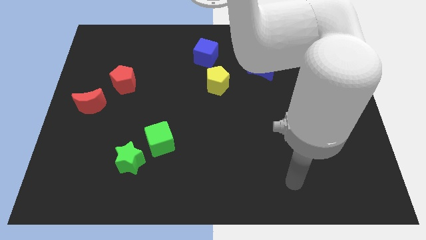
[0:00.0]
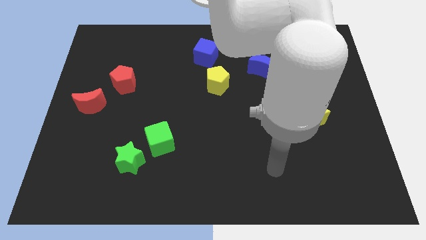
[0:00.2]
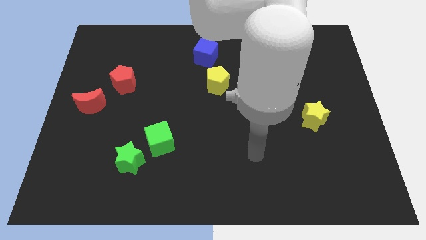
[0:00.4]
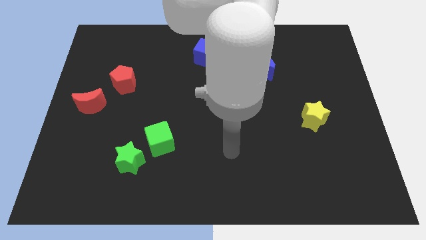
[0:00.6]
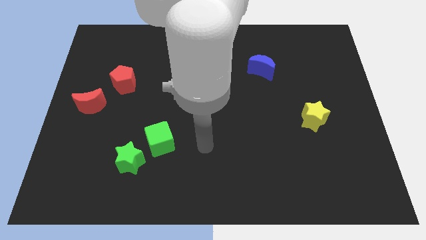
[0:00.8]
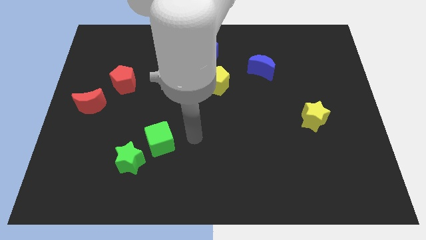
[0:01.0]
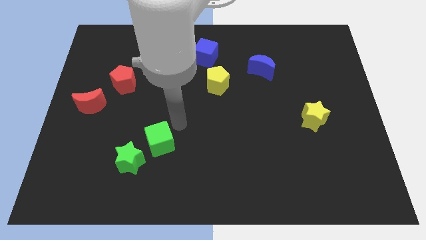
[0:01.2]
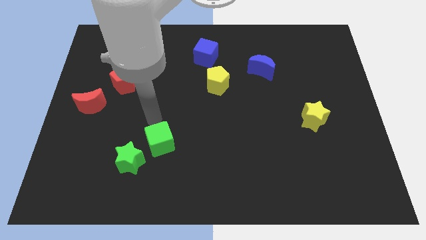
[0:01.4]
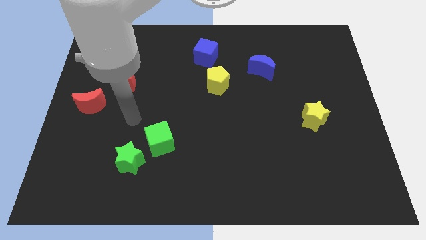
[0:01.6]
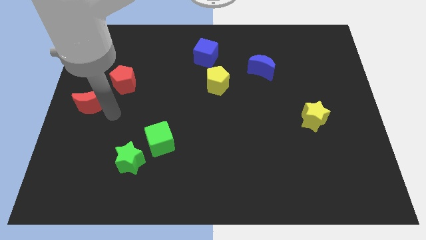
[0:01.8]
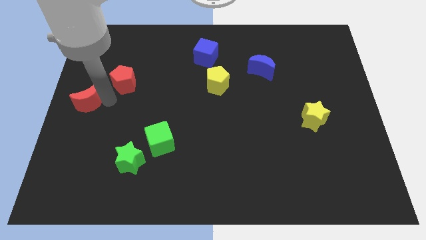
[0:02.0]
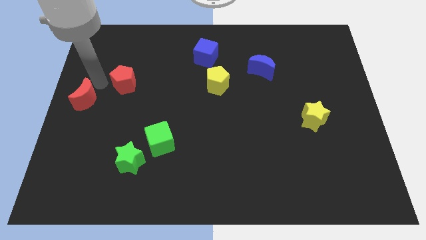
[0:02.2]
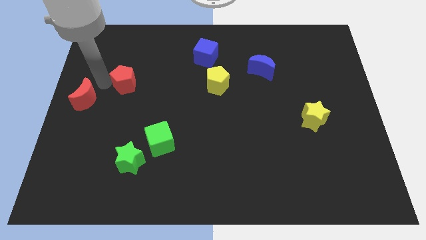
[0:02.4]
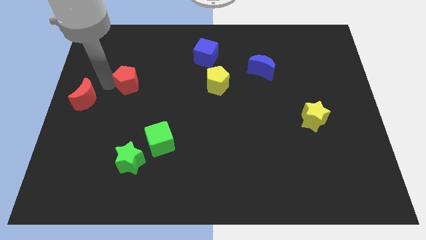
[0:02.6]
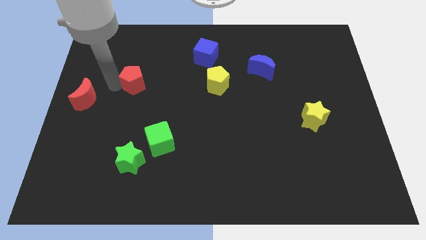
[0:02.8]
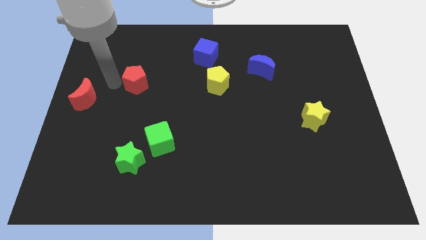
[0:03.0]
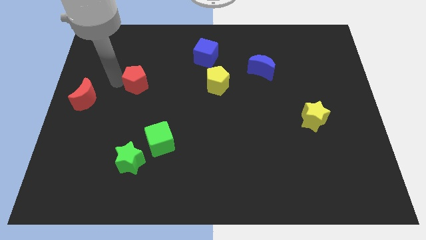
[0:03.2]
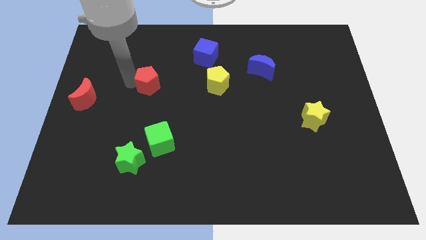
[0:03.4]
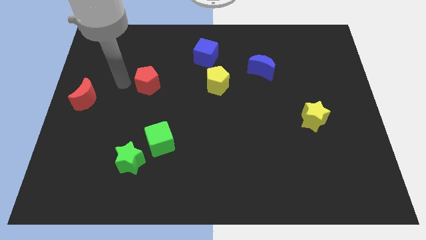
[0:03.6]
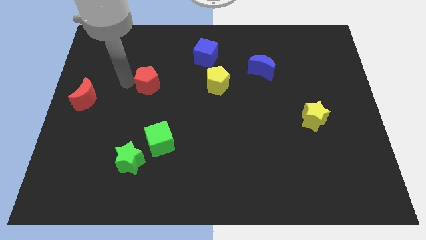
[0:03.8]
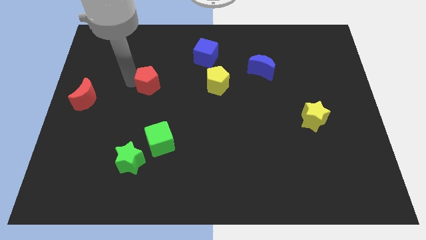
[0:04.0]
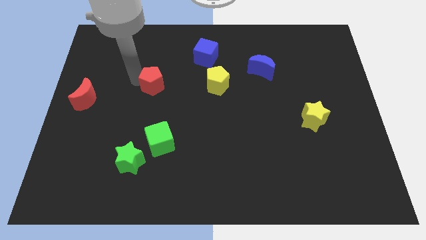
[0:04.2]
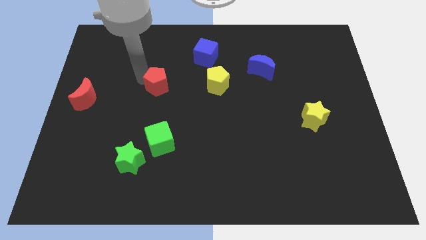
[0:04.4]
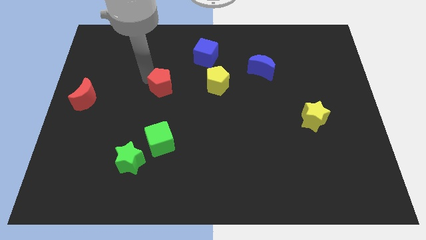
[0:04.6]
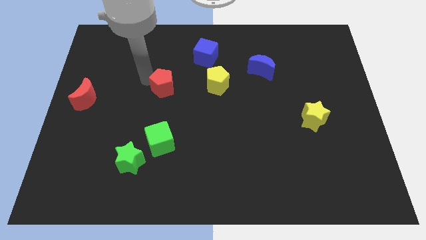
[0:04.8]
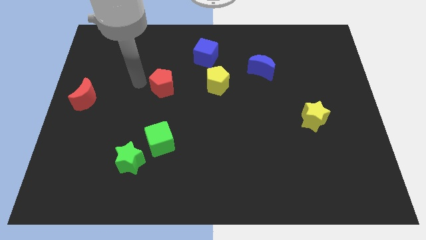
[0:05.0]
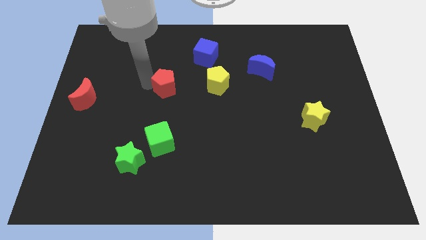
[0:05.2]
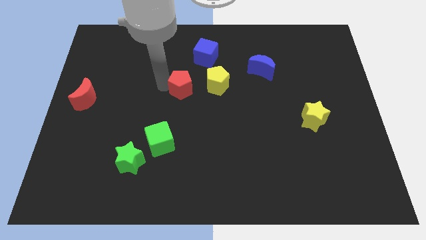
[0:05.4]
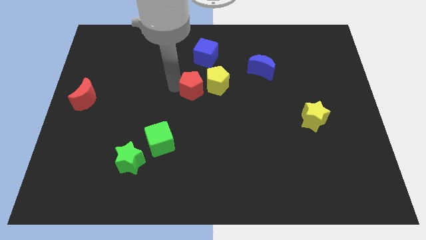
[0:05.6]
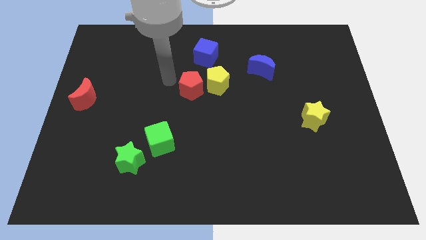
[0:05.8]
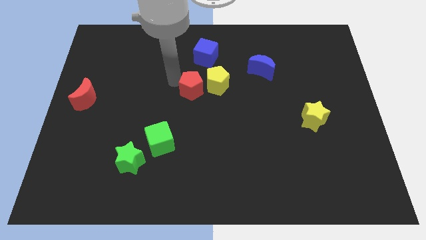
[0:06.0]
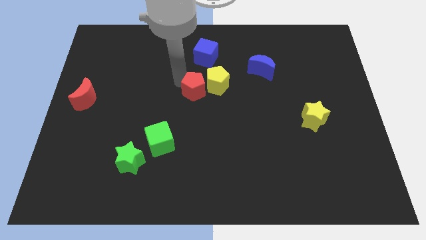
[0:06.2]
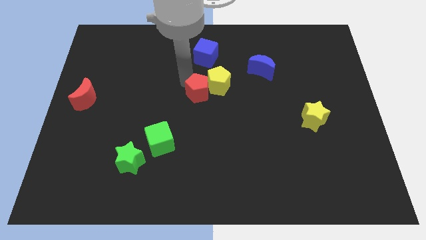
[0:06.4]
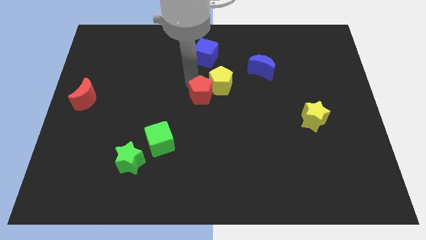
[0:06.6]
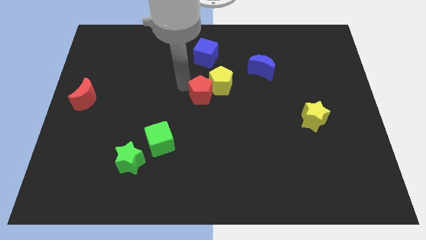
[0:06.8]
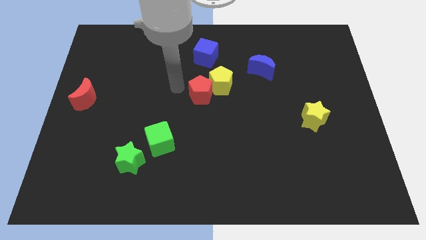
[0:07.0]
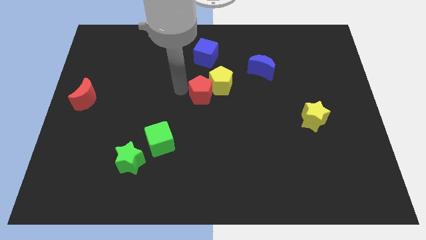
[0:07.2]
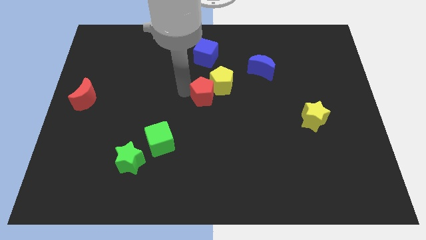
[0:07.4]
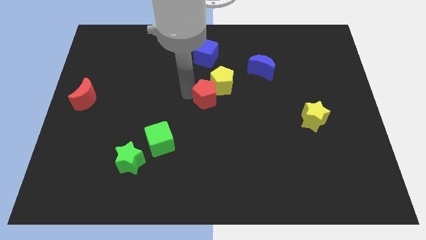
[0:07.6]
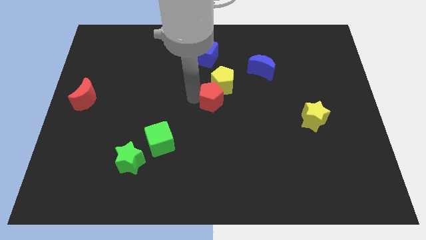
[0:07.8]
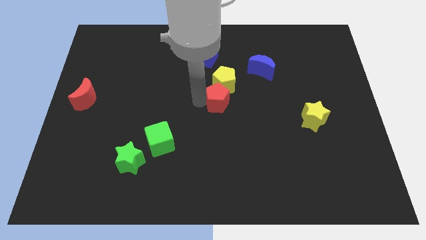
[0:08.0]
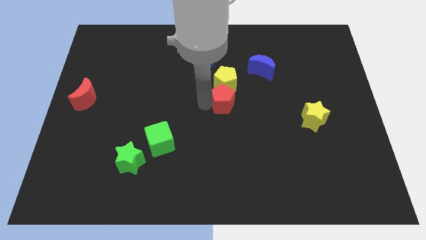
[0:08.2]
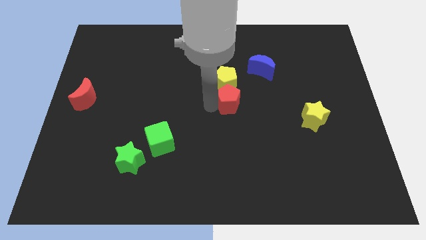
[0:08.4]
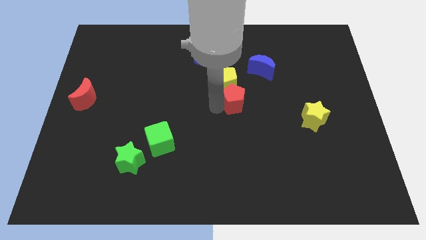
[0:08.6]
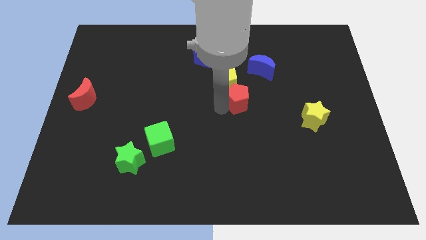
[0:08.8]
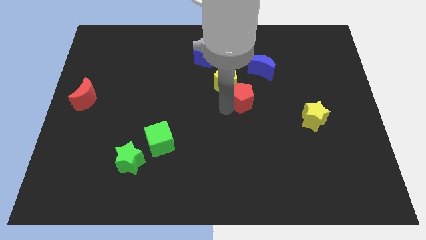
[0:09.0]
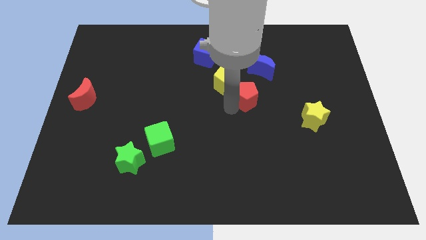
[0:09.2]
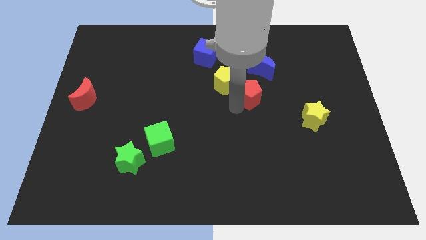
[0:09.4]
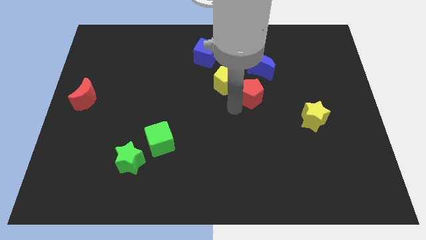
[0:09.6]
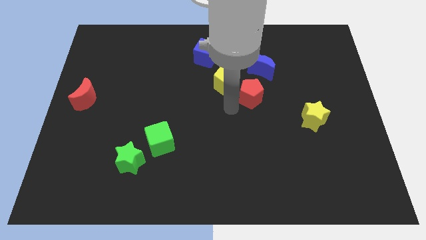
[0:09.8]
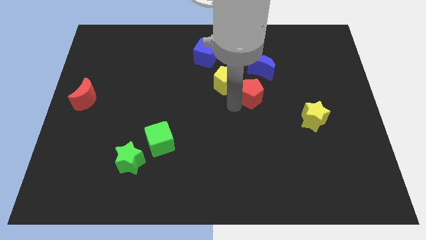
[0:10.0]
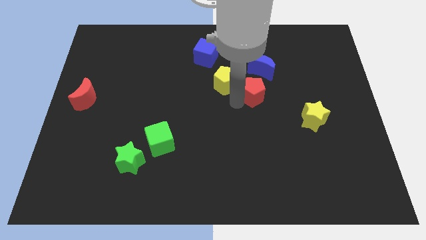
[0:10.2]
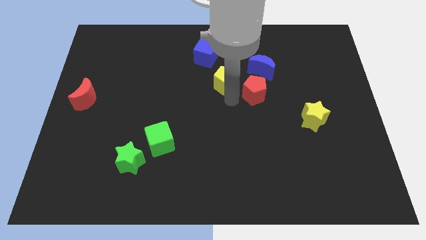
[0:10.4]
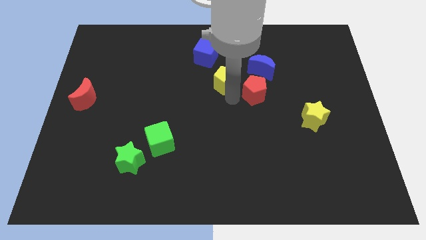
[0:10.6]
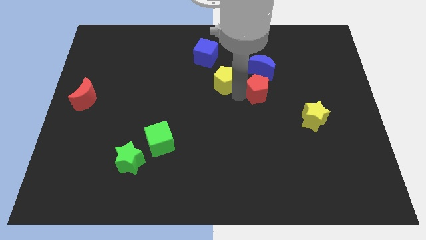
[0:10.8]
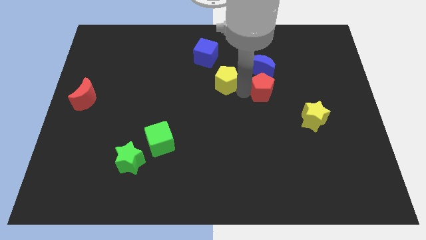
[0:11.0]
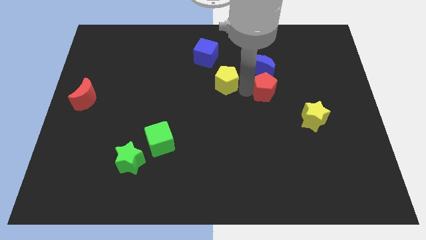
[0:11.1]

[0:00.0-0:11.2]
push the red pentagon to the bottom right side of the blue moon

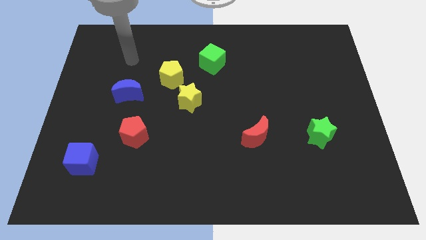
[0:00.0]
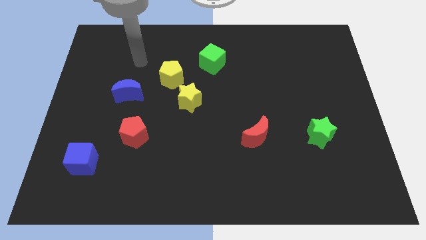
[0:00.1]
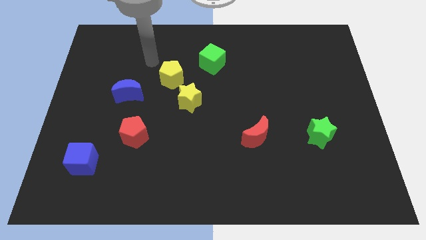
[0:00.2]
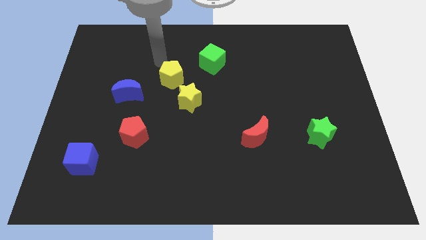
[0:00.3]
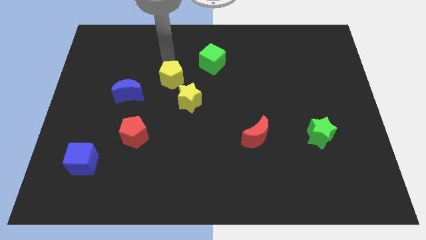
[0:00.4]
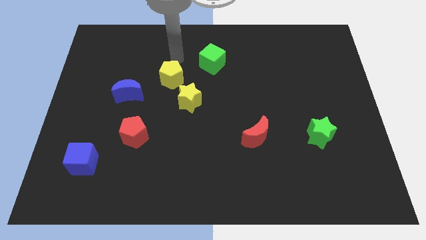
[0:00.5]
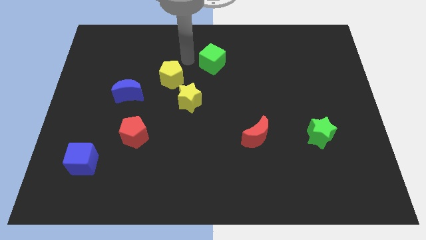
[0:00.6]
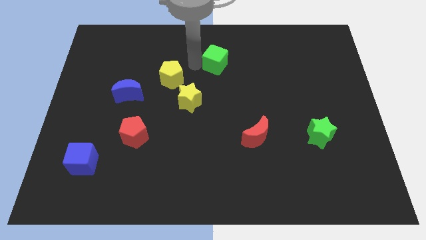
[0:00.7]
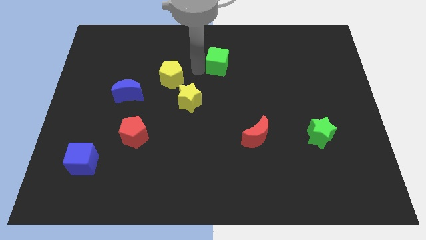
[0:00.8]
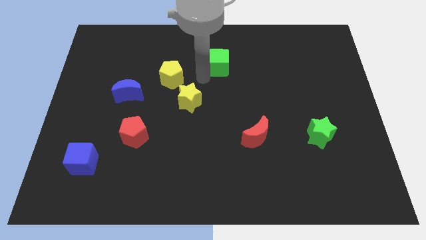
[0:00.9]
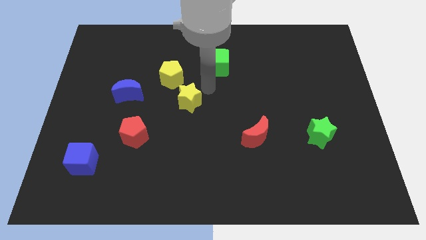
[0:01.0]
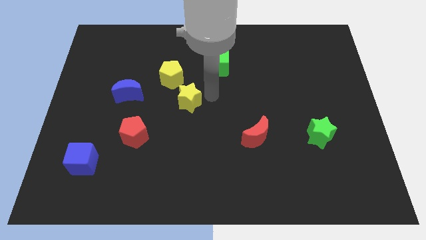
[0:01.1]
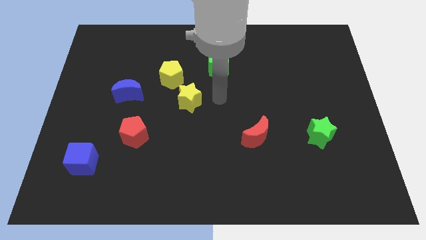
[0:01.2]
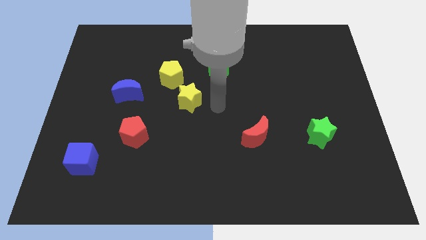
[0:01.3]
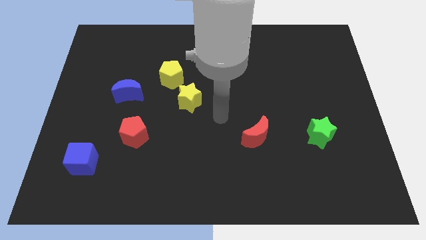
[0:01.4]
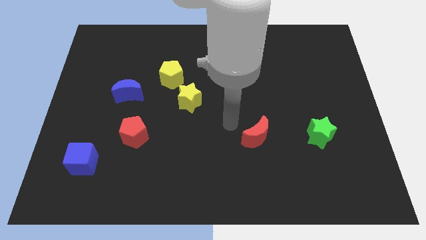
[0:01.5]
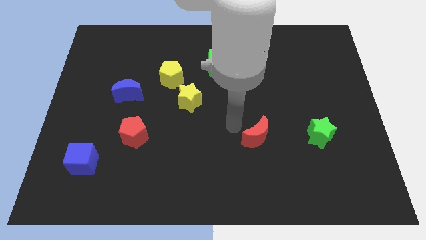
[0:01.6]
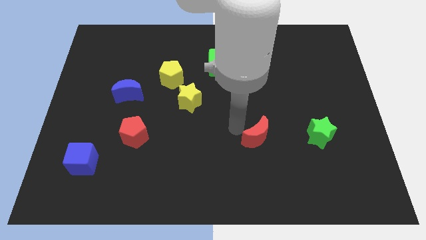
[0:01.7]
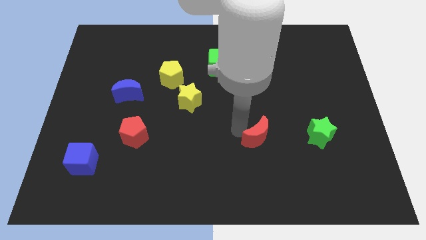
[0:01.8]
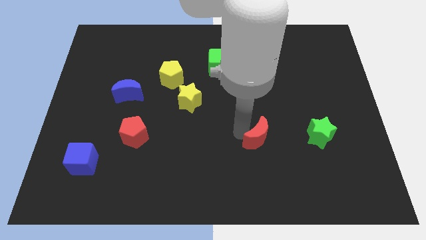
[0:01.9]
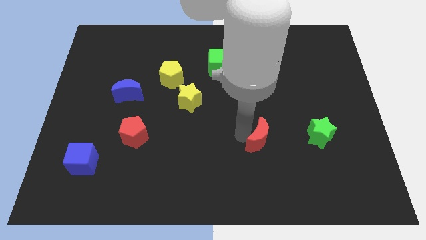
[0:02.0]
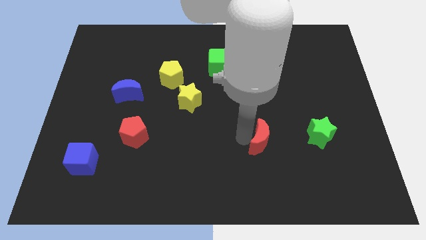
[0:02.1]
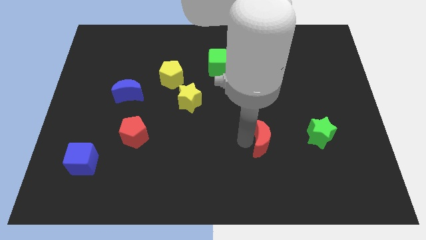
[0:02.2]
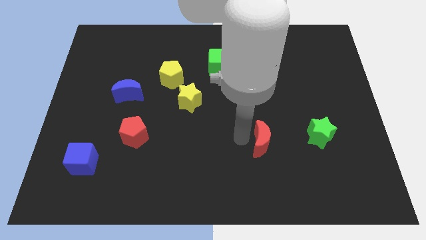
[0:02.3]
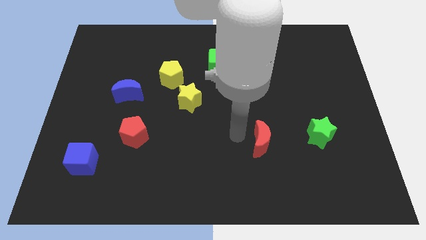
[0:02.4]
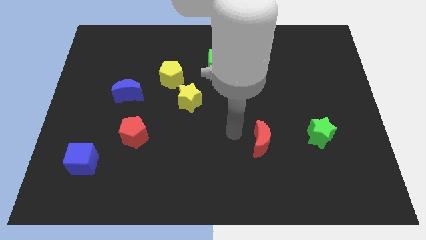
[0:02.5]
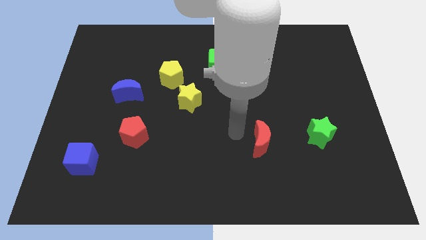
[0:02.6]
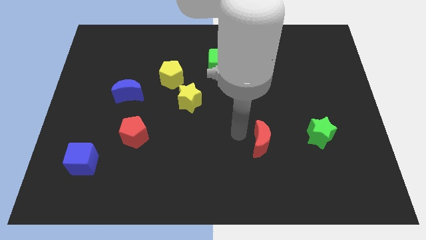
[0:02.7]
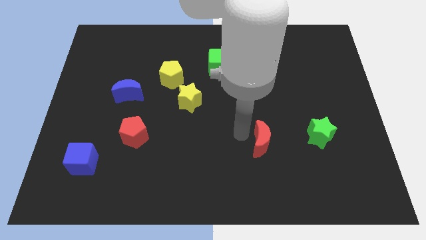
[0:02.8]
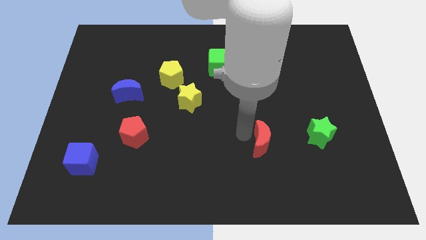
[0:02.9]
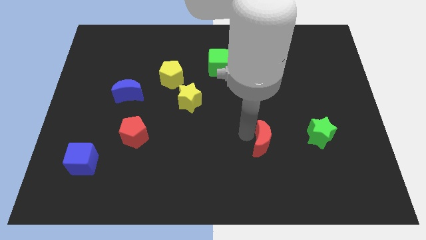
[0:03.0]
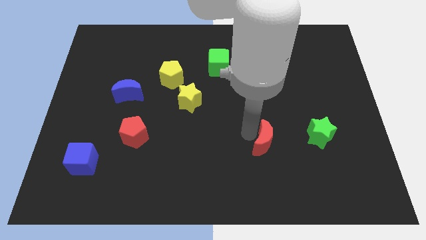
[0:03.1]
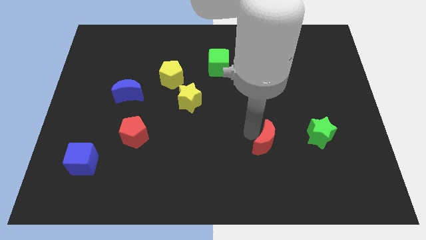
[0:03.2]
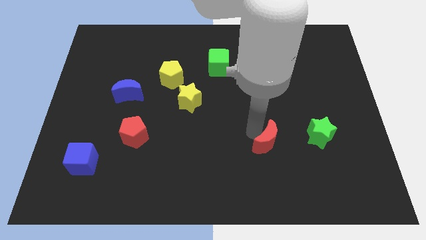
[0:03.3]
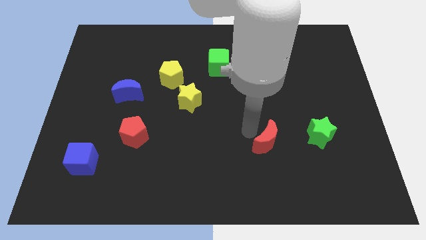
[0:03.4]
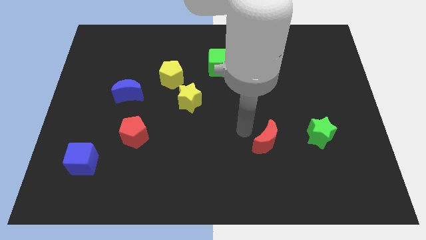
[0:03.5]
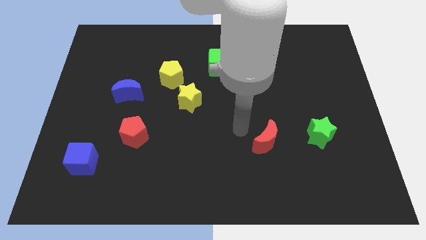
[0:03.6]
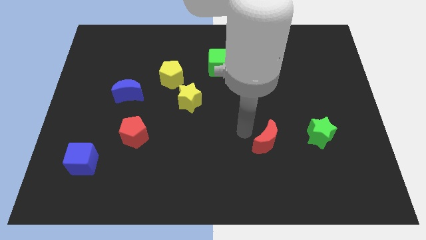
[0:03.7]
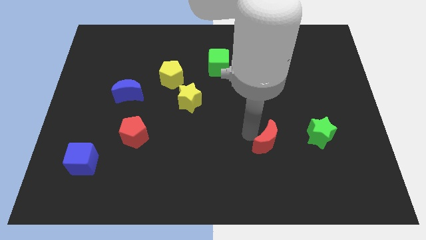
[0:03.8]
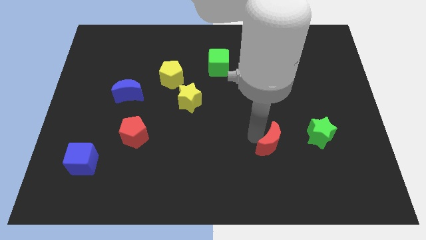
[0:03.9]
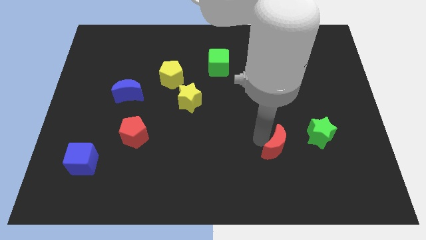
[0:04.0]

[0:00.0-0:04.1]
push the red moon to the bottom left side of the green star
